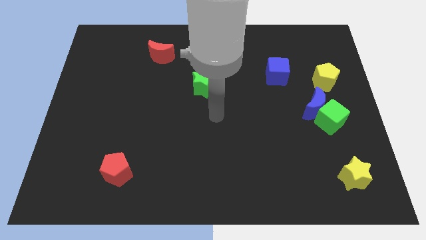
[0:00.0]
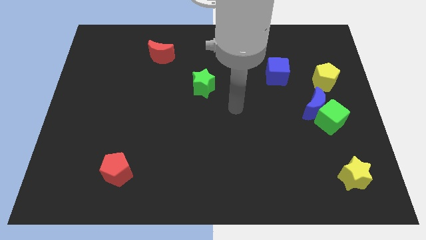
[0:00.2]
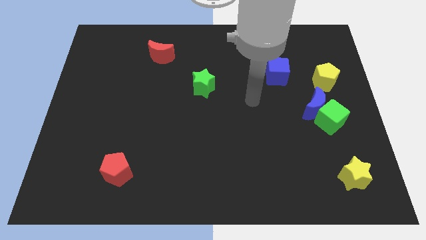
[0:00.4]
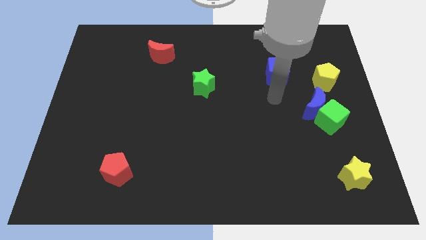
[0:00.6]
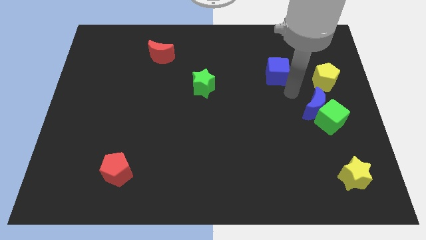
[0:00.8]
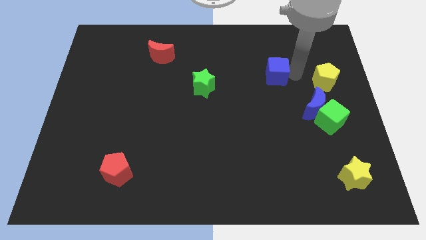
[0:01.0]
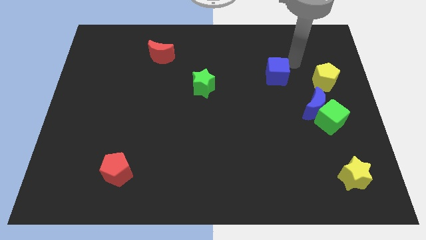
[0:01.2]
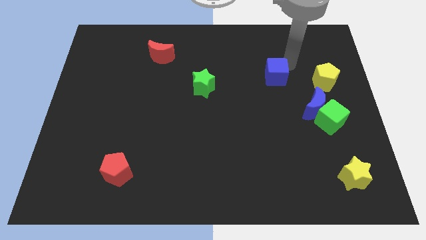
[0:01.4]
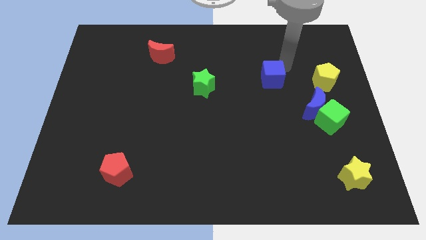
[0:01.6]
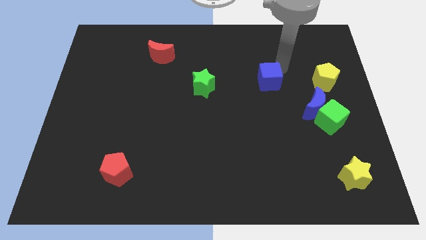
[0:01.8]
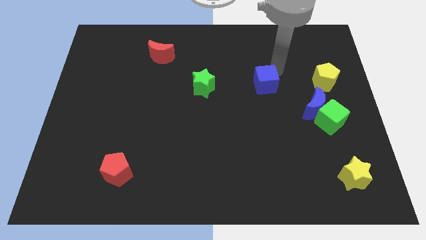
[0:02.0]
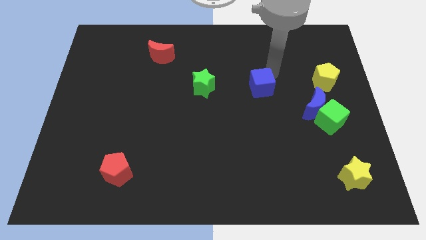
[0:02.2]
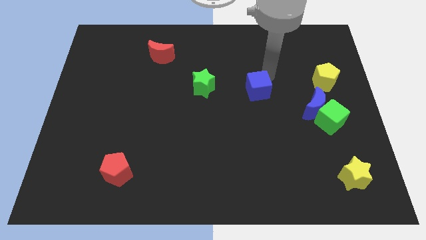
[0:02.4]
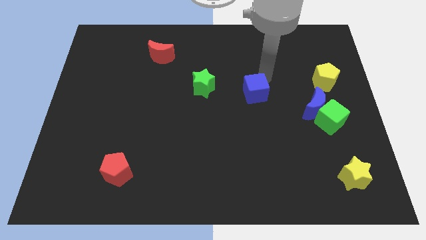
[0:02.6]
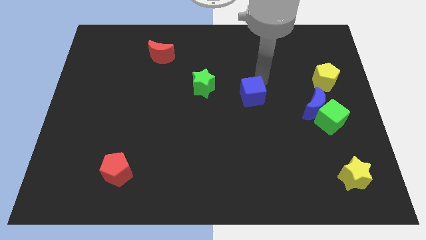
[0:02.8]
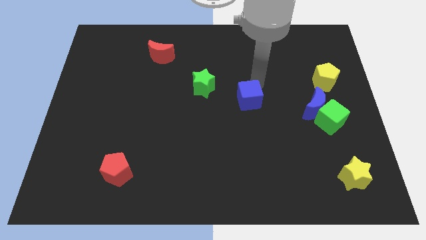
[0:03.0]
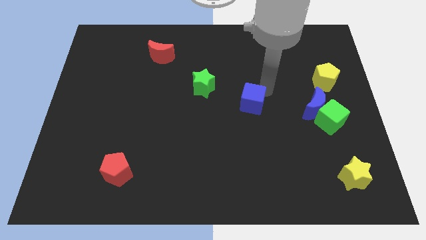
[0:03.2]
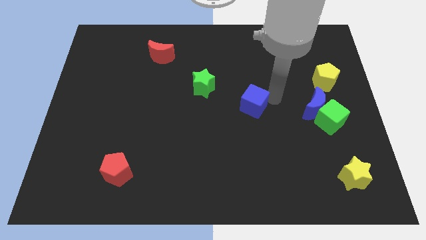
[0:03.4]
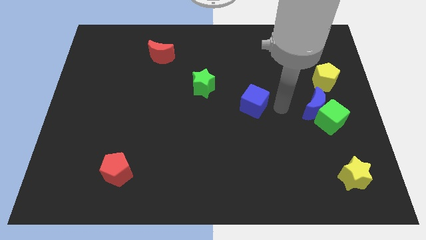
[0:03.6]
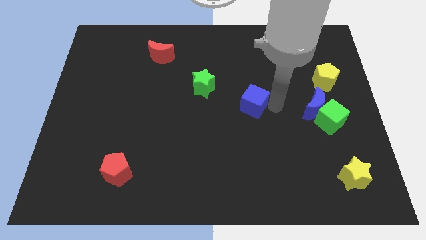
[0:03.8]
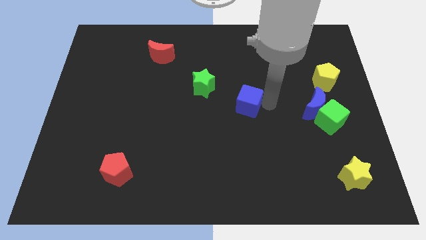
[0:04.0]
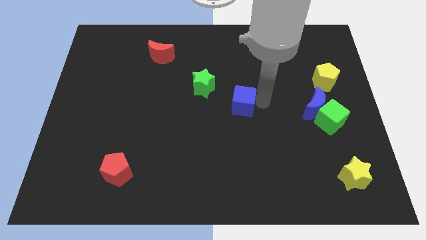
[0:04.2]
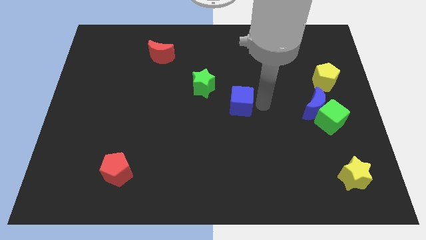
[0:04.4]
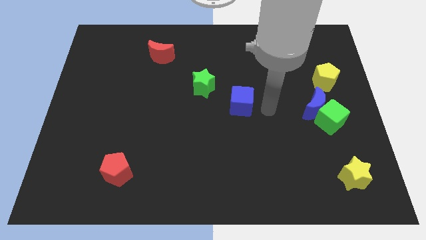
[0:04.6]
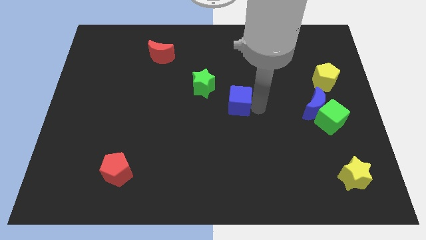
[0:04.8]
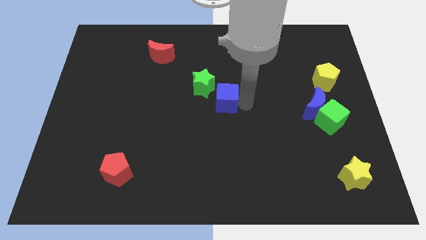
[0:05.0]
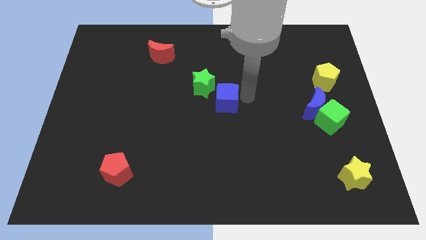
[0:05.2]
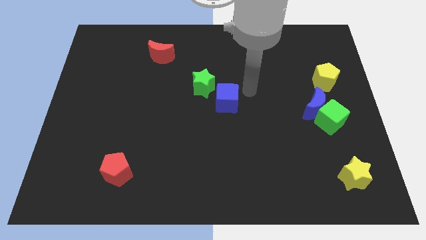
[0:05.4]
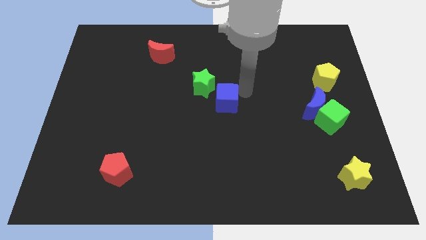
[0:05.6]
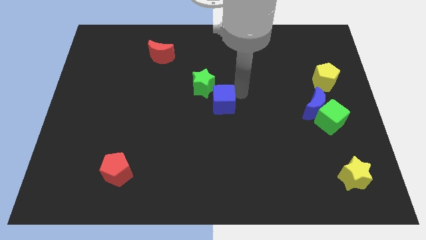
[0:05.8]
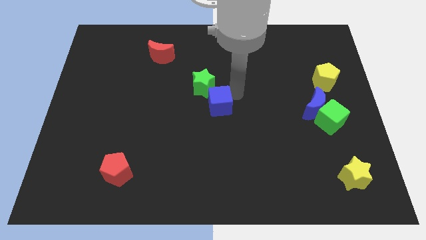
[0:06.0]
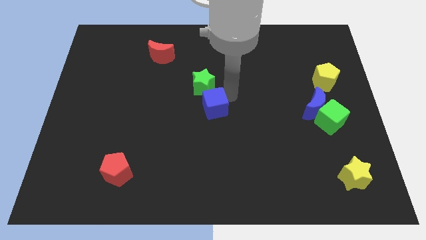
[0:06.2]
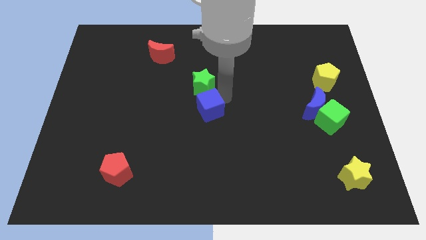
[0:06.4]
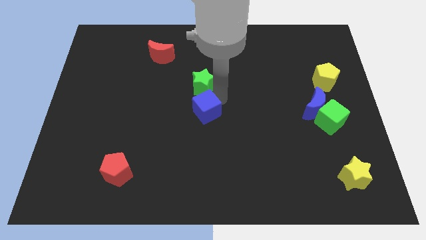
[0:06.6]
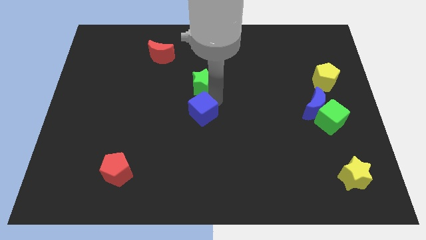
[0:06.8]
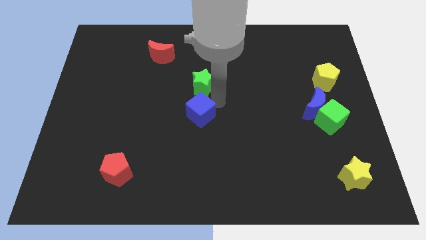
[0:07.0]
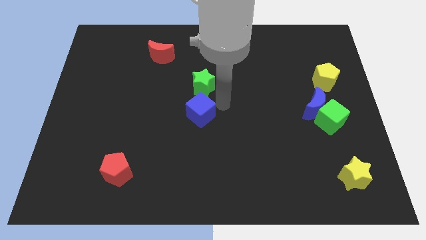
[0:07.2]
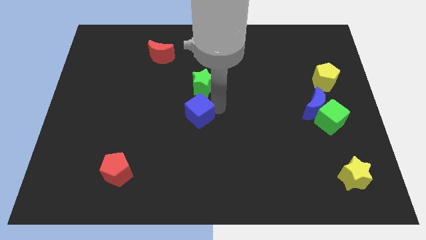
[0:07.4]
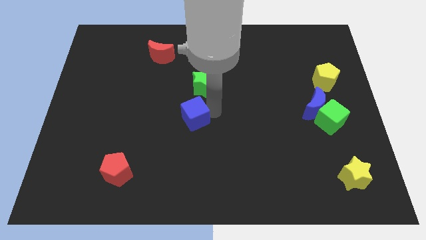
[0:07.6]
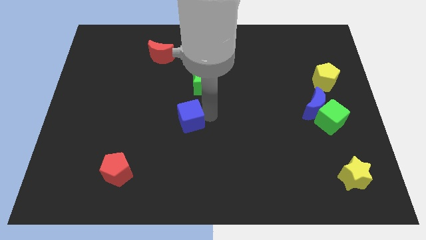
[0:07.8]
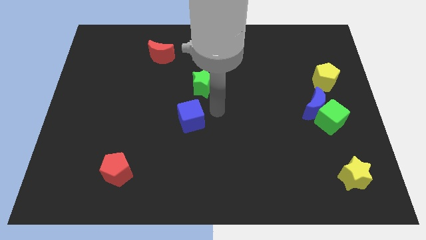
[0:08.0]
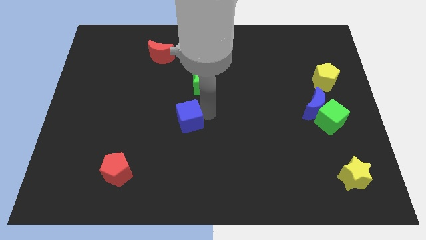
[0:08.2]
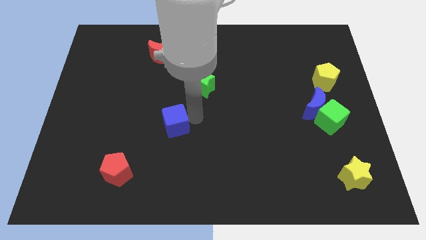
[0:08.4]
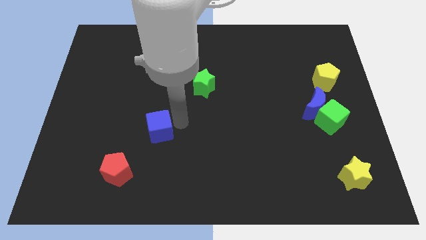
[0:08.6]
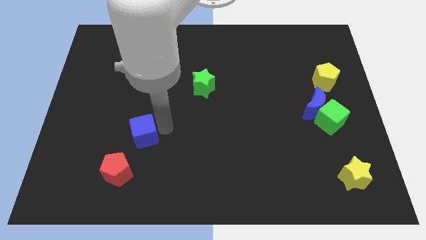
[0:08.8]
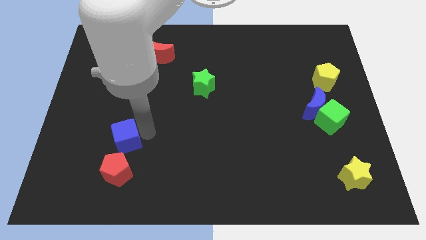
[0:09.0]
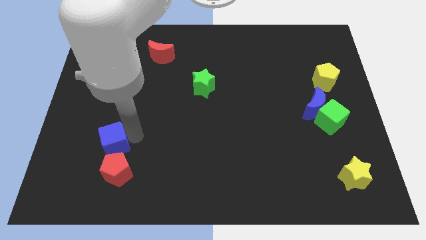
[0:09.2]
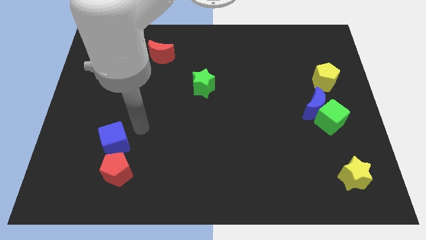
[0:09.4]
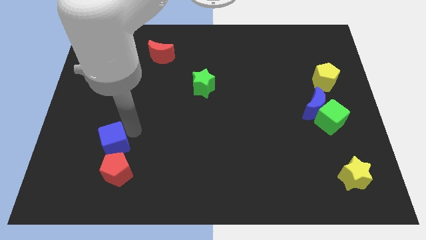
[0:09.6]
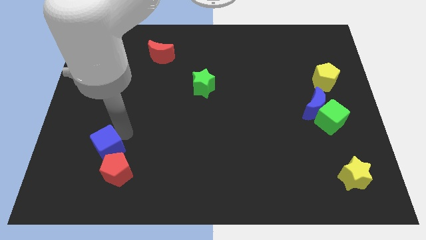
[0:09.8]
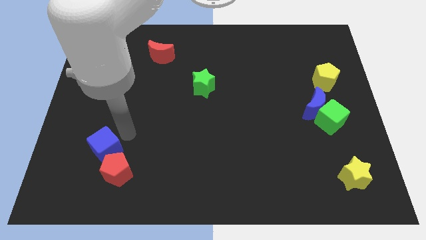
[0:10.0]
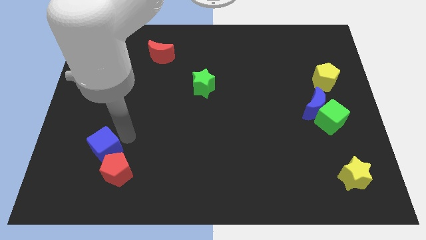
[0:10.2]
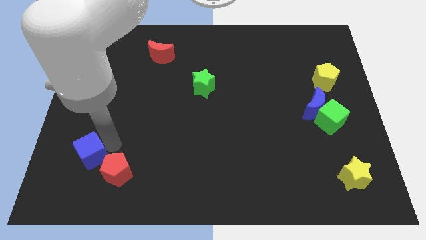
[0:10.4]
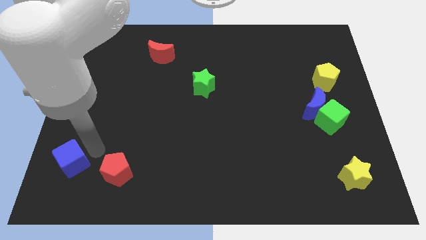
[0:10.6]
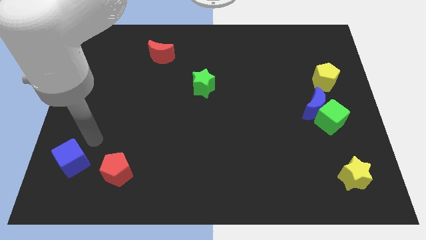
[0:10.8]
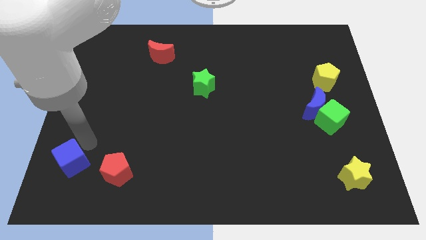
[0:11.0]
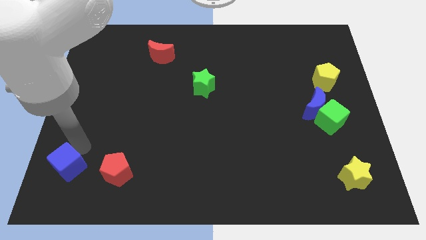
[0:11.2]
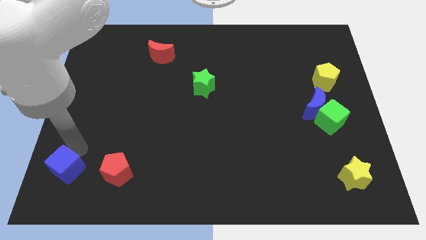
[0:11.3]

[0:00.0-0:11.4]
push the blue cube to the bottom left
